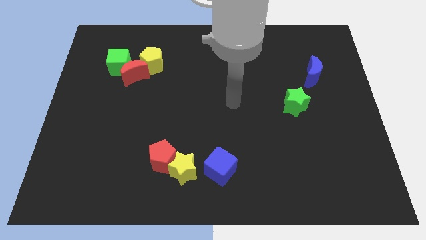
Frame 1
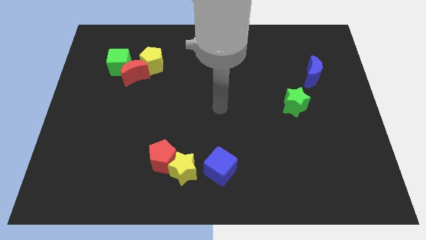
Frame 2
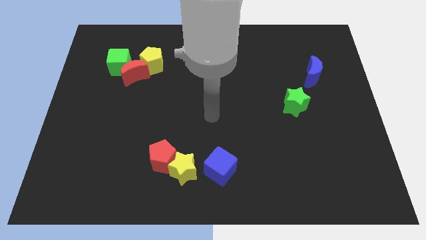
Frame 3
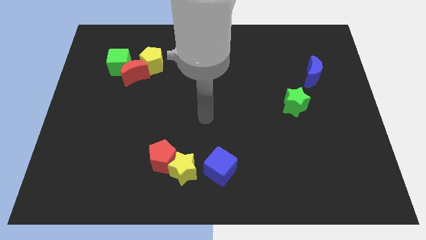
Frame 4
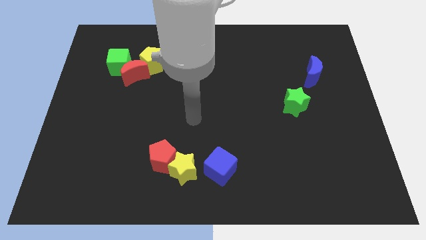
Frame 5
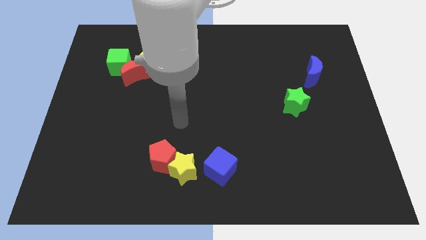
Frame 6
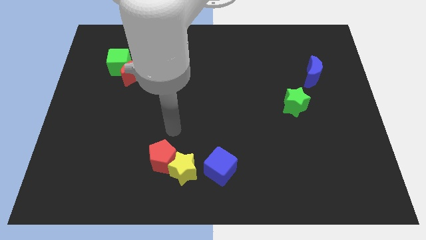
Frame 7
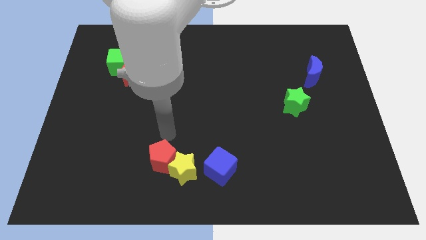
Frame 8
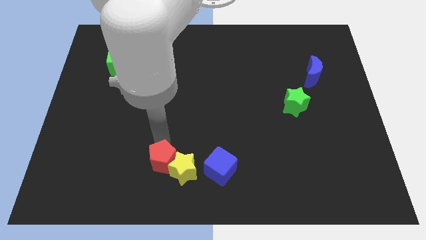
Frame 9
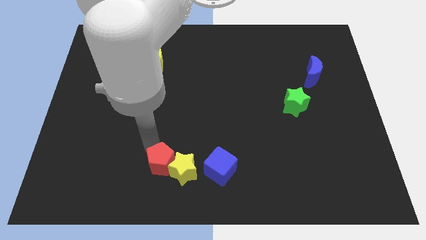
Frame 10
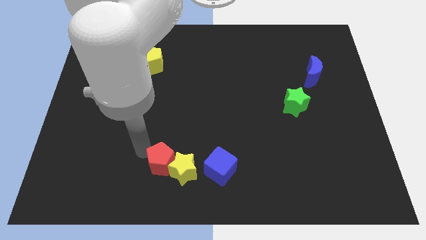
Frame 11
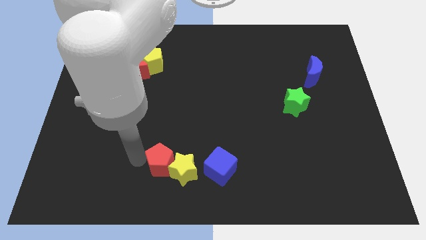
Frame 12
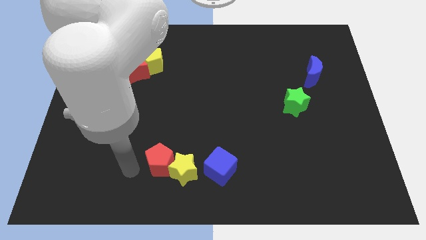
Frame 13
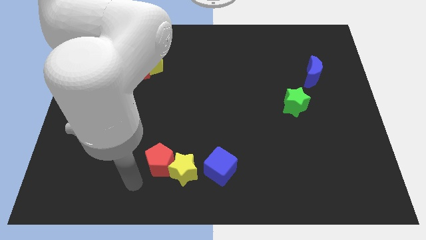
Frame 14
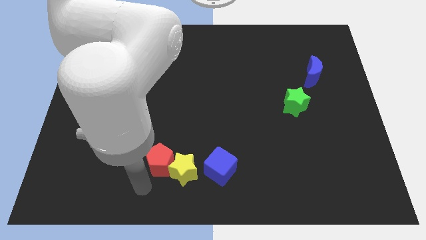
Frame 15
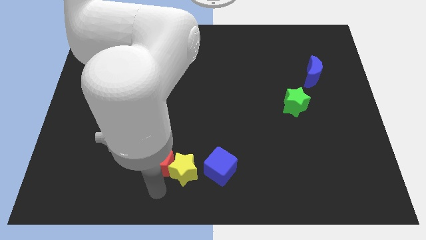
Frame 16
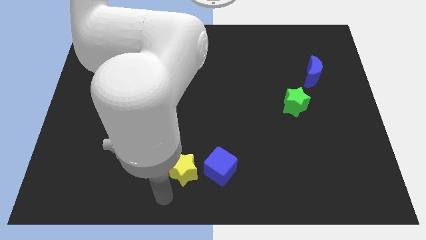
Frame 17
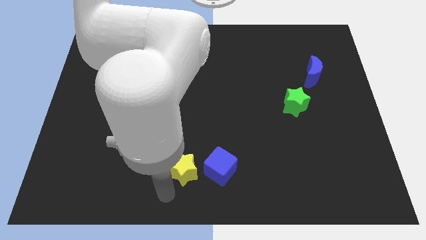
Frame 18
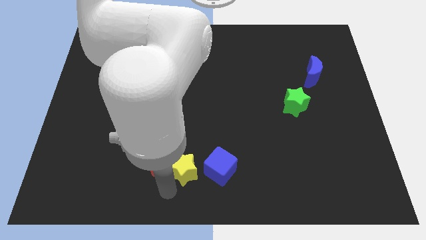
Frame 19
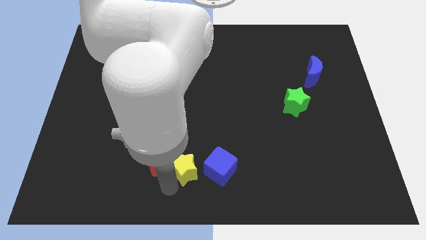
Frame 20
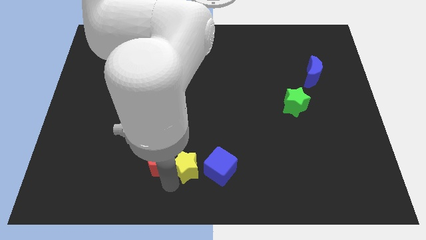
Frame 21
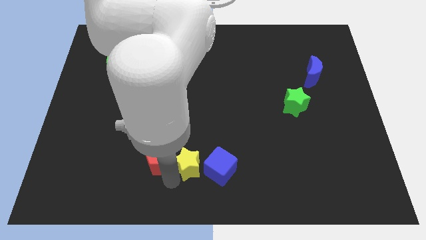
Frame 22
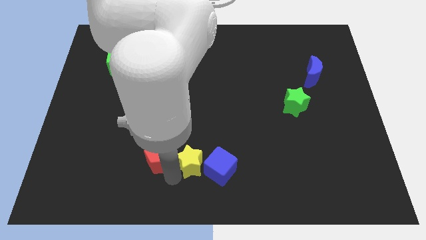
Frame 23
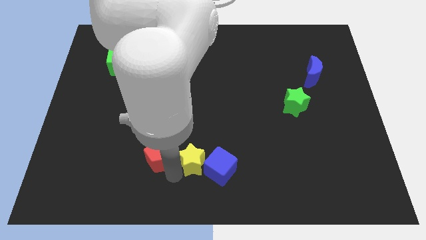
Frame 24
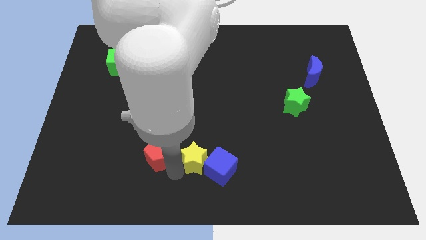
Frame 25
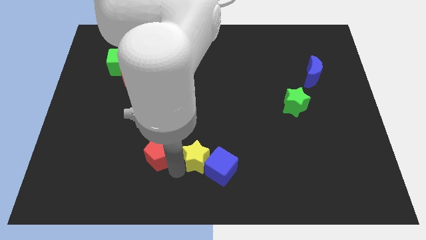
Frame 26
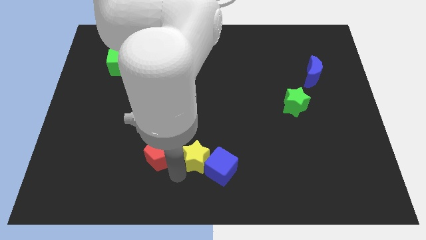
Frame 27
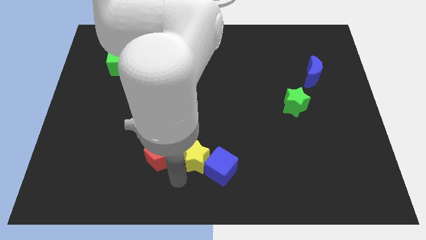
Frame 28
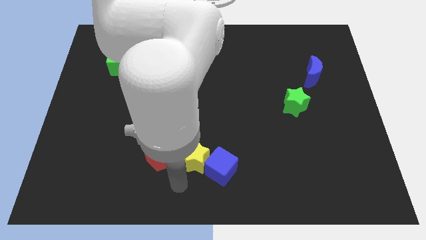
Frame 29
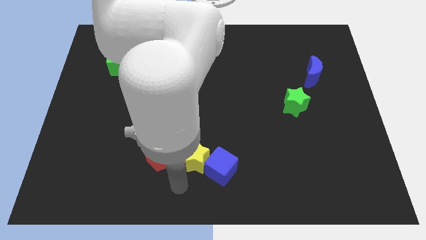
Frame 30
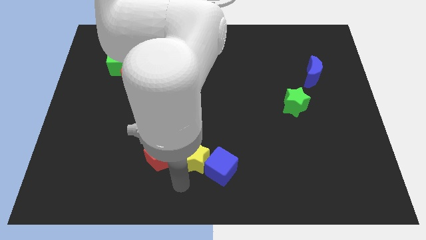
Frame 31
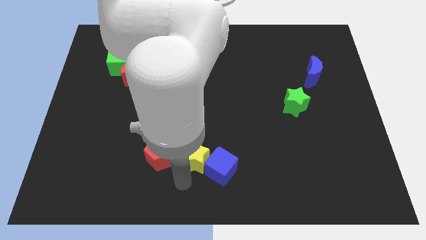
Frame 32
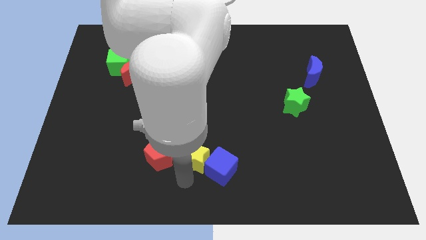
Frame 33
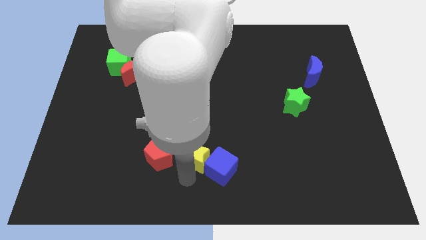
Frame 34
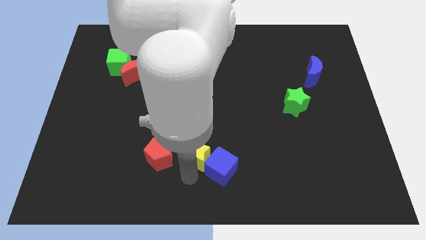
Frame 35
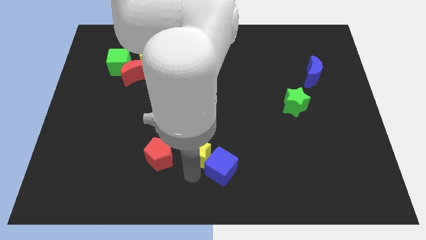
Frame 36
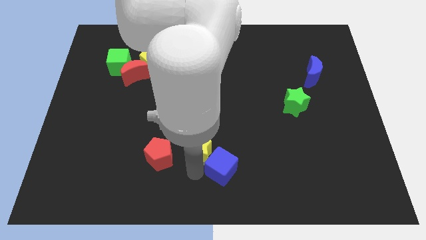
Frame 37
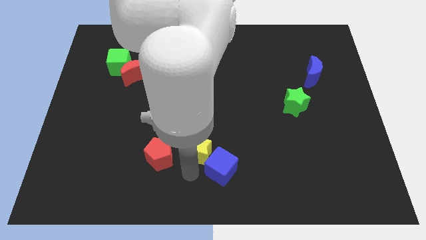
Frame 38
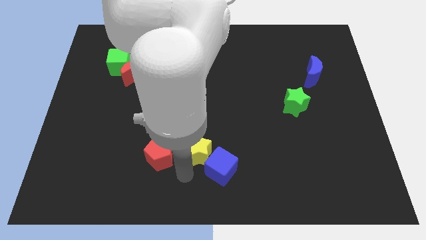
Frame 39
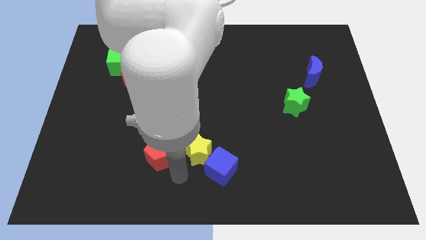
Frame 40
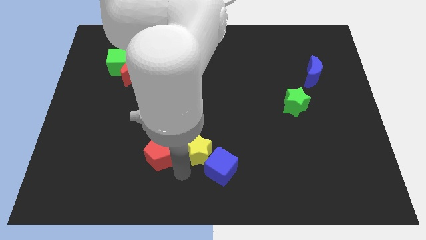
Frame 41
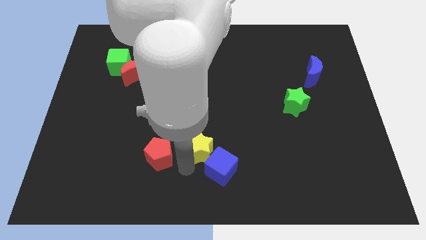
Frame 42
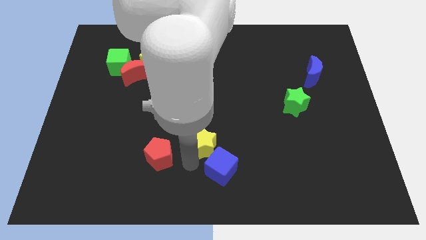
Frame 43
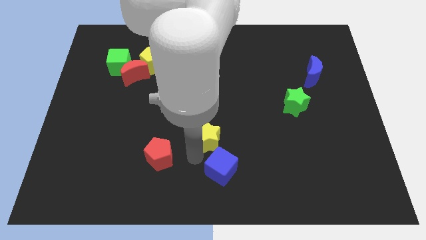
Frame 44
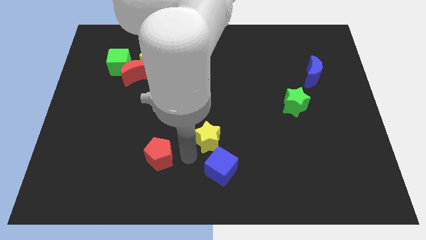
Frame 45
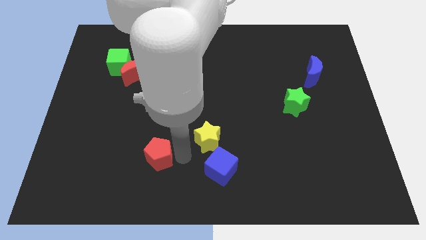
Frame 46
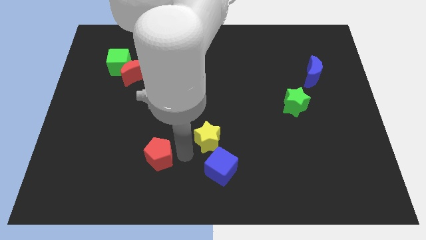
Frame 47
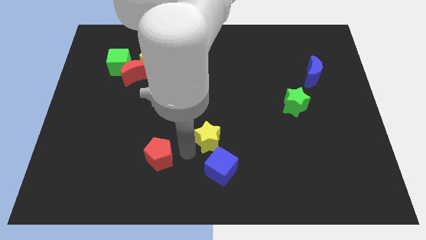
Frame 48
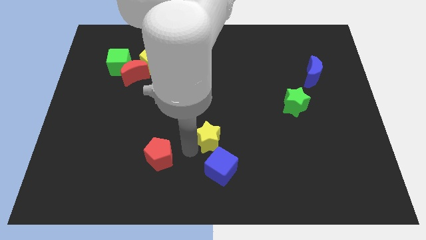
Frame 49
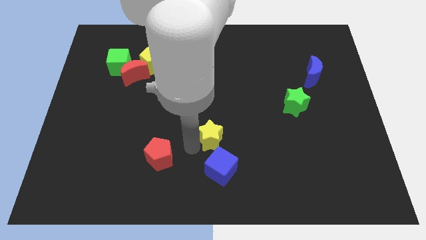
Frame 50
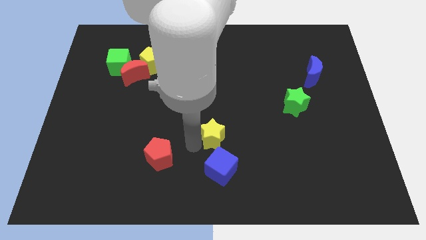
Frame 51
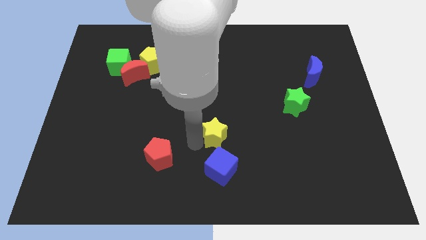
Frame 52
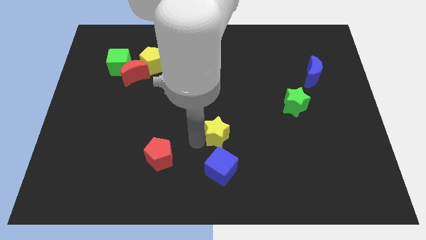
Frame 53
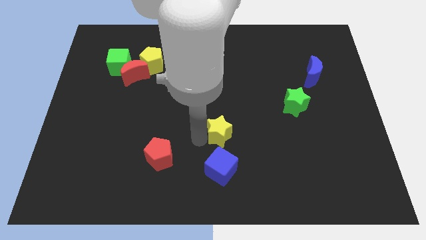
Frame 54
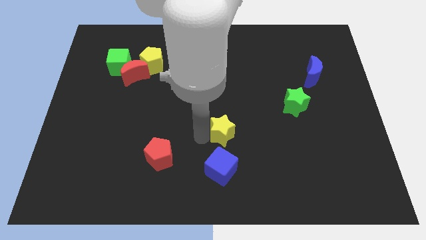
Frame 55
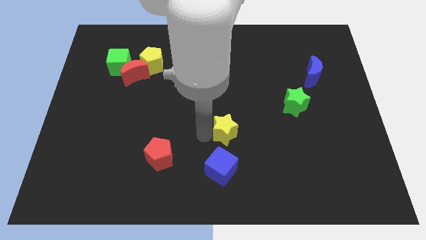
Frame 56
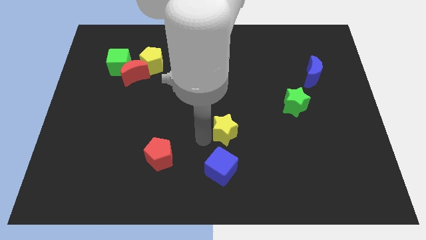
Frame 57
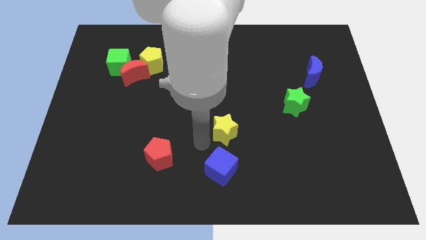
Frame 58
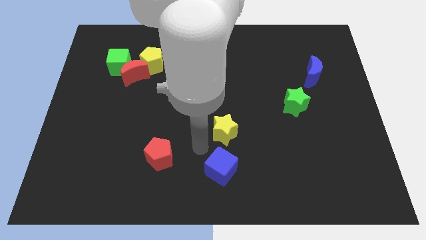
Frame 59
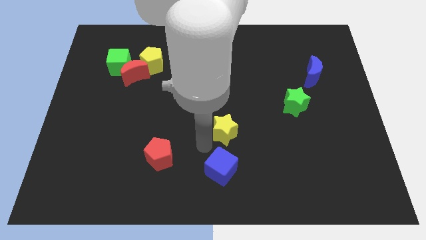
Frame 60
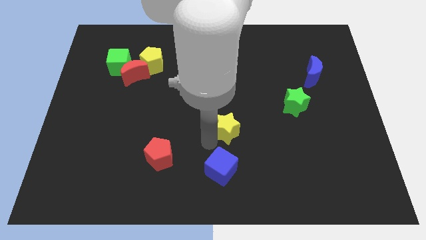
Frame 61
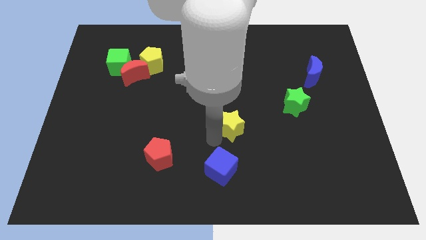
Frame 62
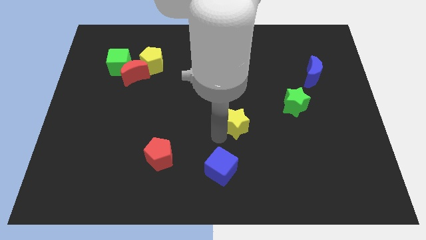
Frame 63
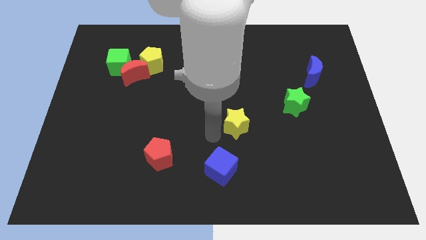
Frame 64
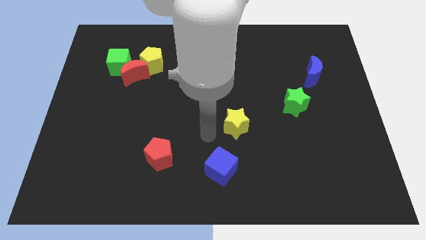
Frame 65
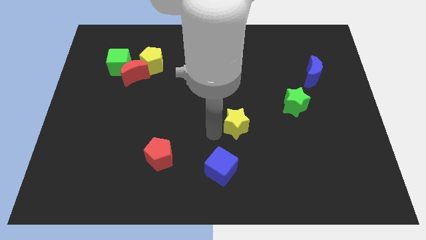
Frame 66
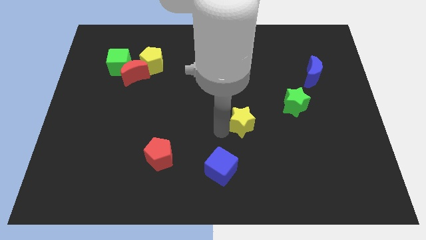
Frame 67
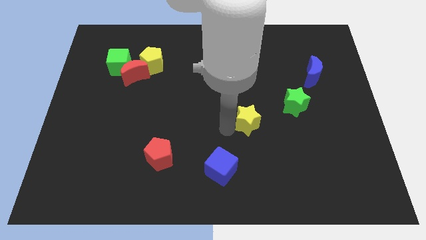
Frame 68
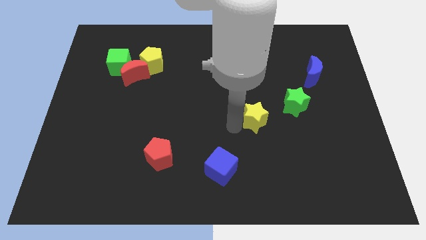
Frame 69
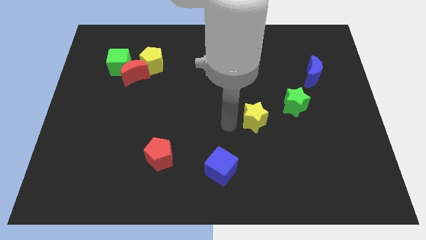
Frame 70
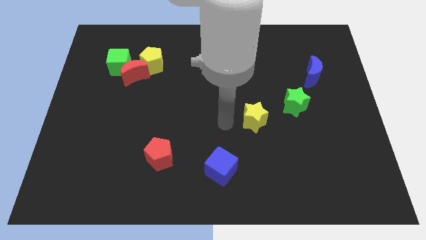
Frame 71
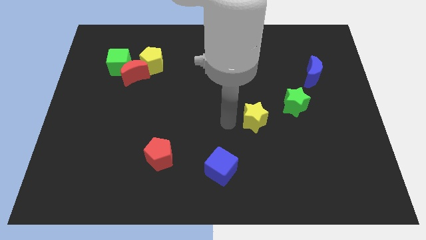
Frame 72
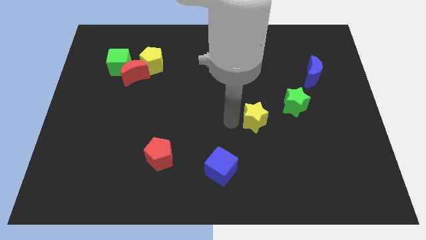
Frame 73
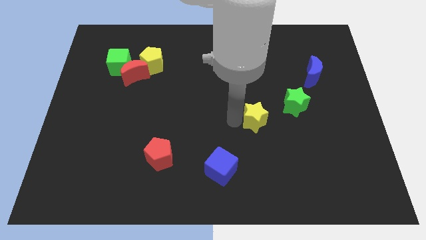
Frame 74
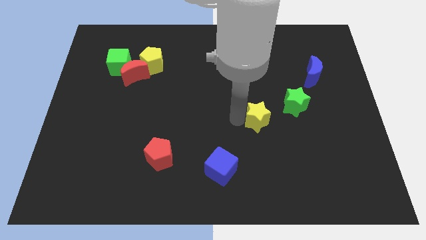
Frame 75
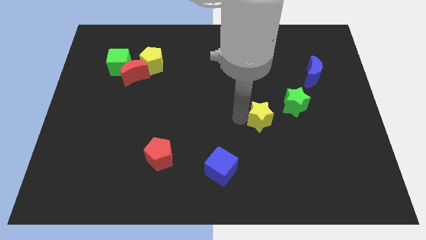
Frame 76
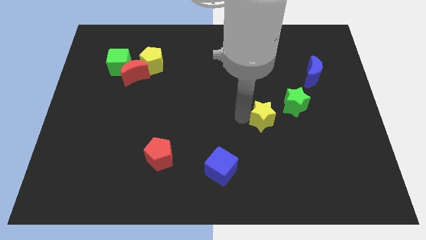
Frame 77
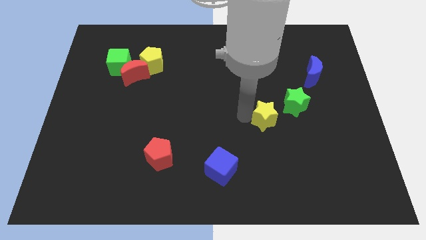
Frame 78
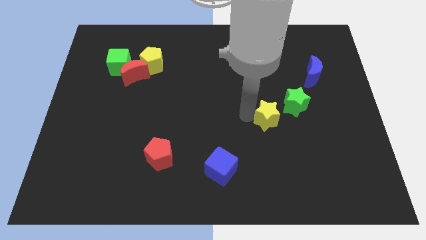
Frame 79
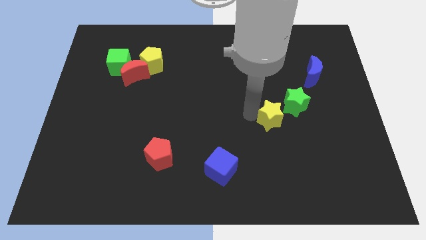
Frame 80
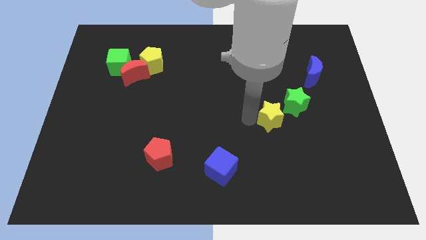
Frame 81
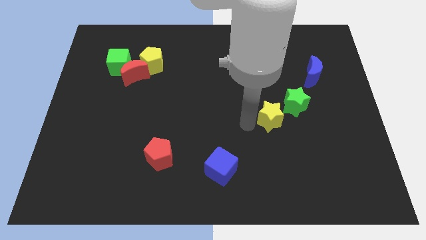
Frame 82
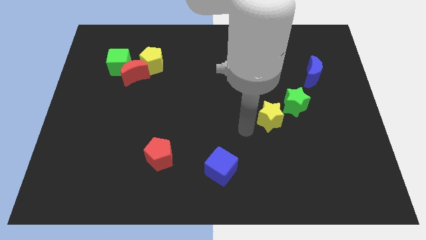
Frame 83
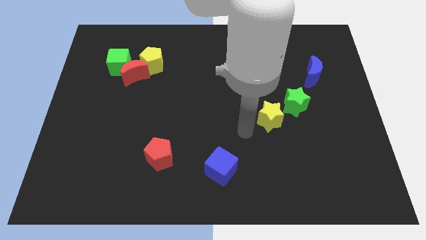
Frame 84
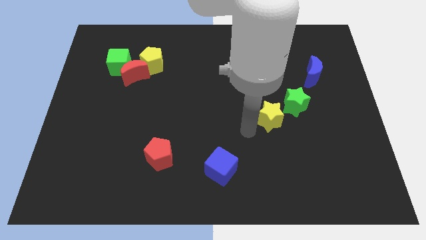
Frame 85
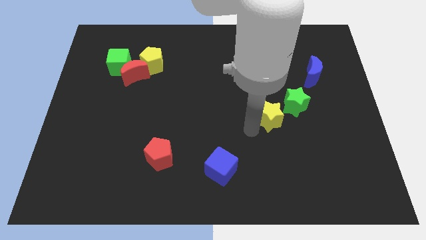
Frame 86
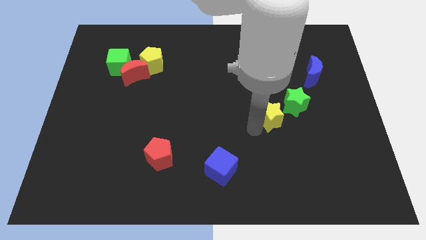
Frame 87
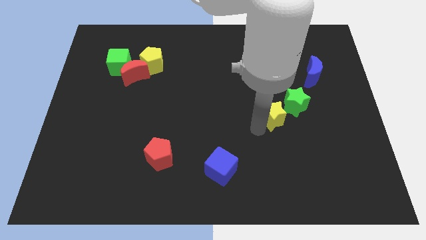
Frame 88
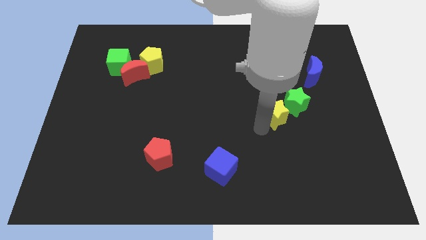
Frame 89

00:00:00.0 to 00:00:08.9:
move the yellow star close to the green star
